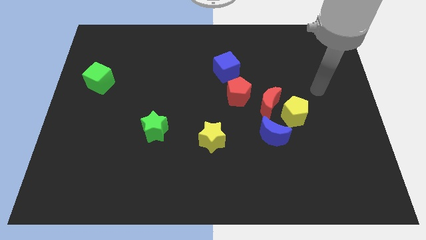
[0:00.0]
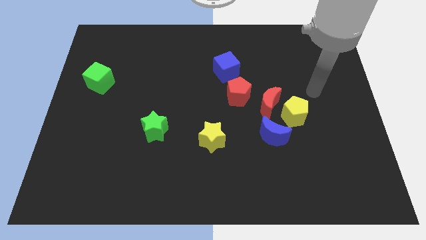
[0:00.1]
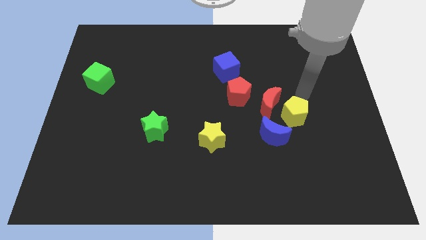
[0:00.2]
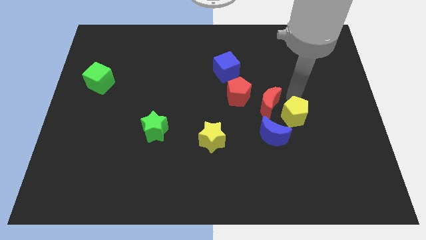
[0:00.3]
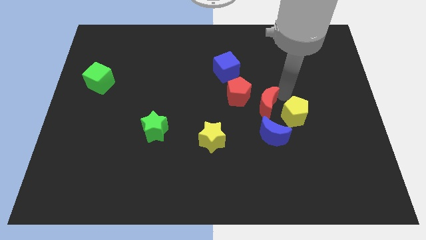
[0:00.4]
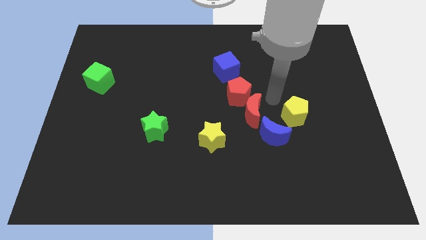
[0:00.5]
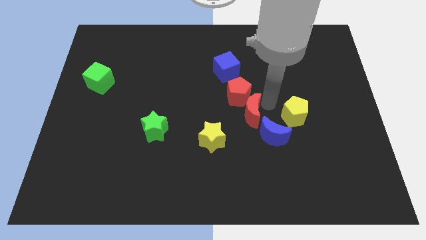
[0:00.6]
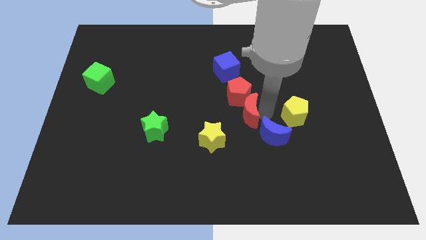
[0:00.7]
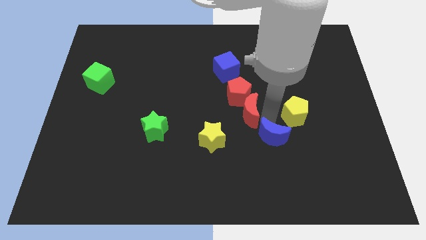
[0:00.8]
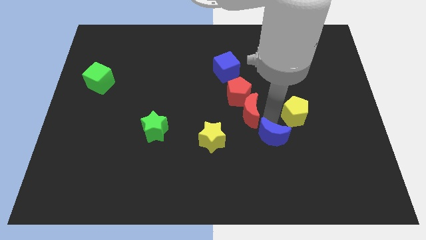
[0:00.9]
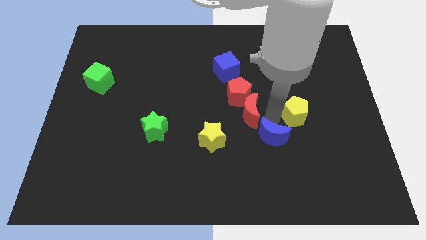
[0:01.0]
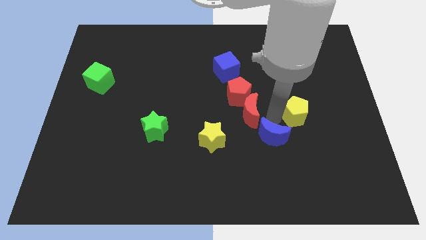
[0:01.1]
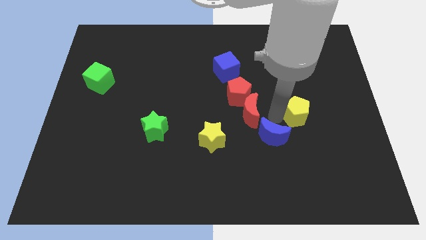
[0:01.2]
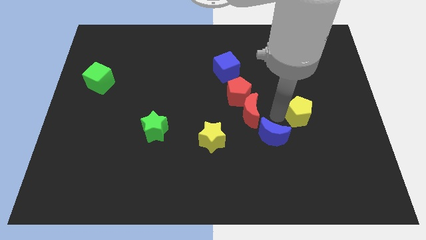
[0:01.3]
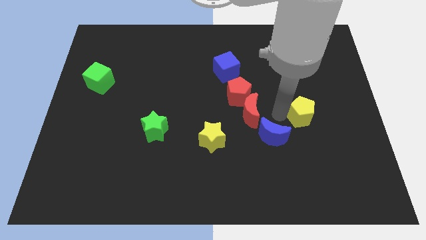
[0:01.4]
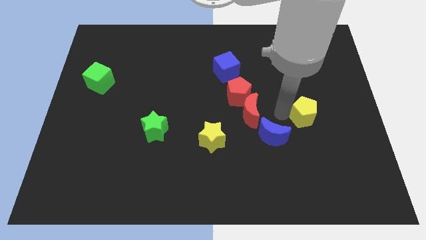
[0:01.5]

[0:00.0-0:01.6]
separate the yellow pentagon from the red moon and blue moon

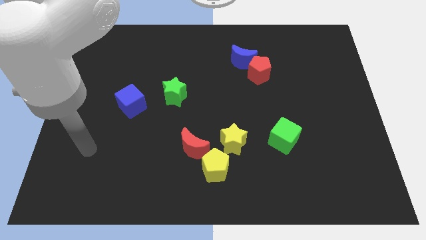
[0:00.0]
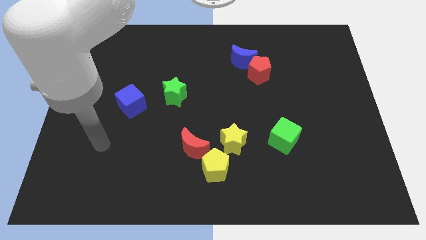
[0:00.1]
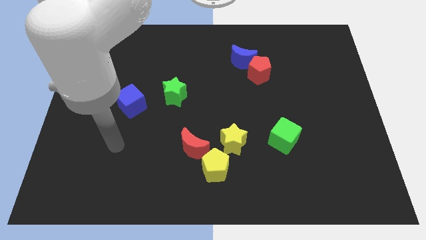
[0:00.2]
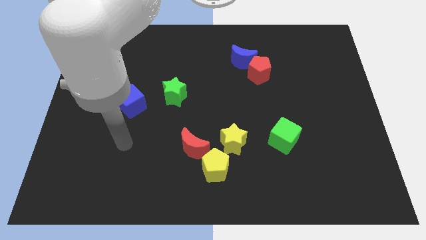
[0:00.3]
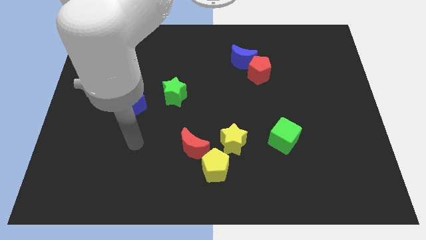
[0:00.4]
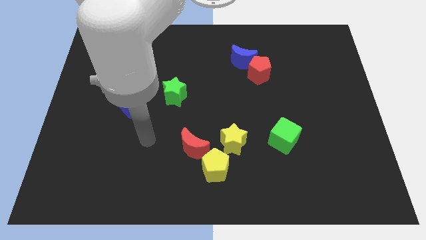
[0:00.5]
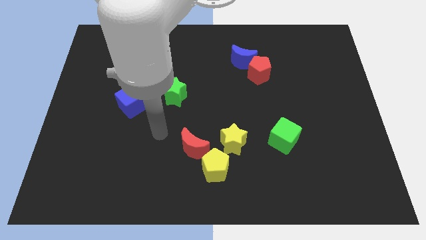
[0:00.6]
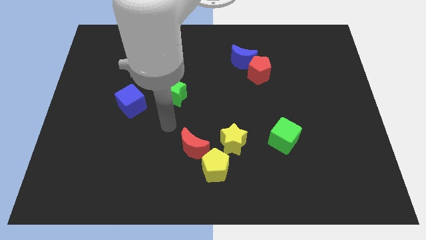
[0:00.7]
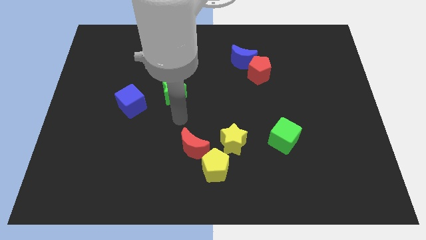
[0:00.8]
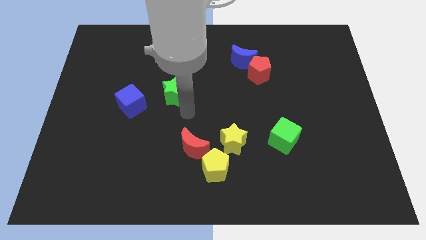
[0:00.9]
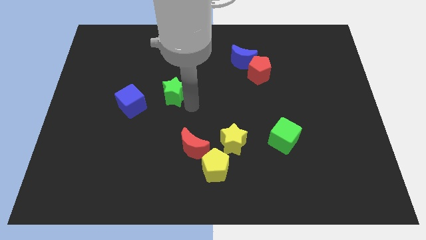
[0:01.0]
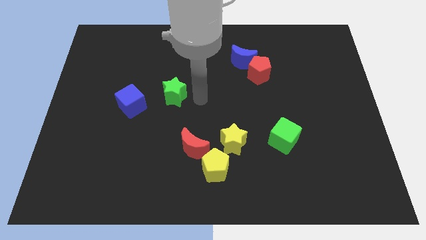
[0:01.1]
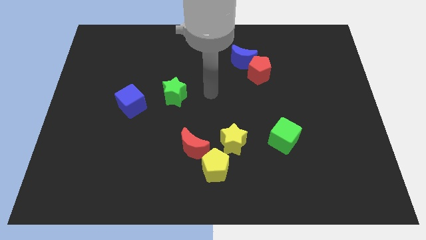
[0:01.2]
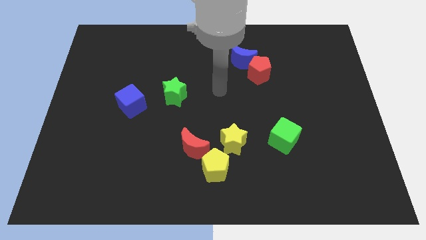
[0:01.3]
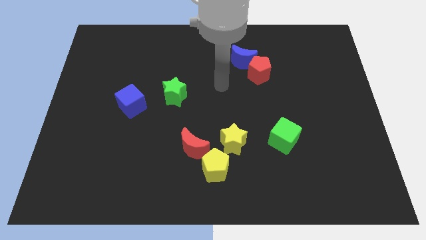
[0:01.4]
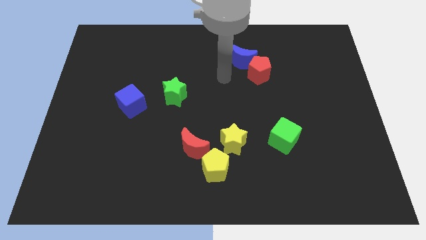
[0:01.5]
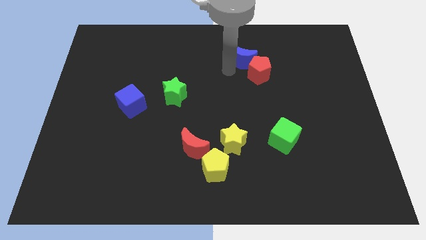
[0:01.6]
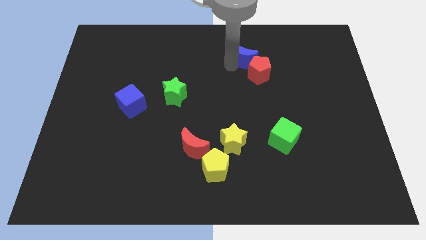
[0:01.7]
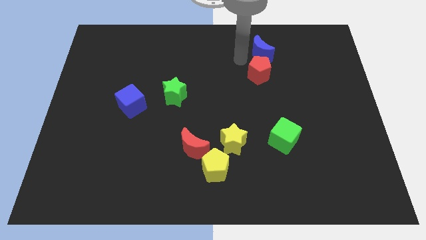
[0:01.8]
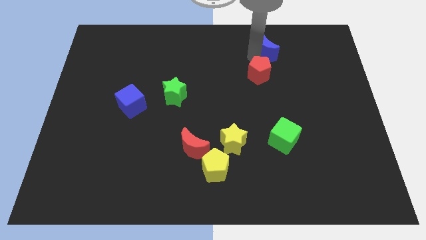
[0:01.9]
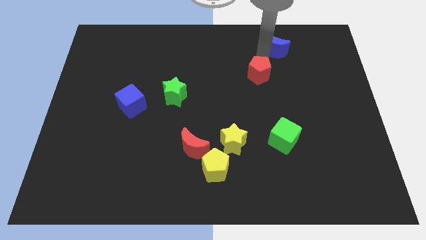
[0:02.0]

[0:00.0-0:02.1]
separate the red pentagon from the blue moon

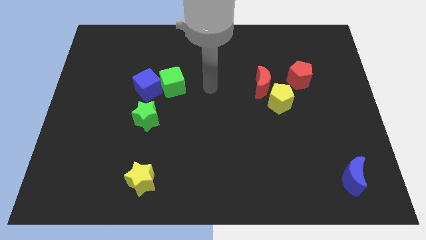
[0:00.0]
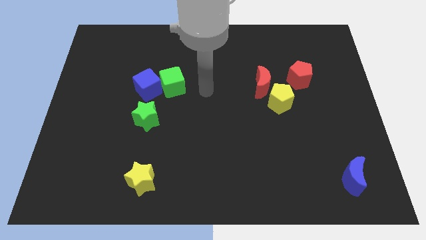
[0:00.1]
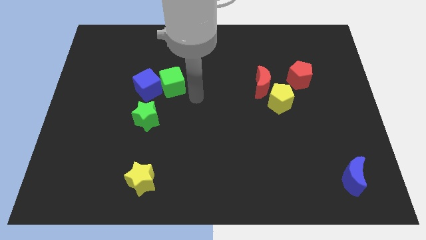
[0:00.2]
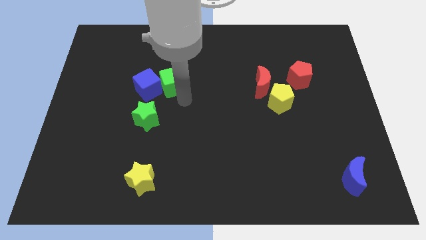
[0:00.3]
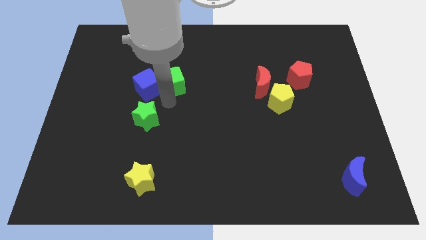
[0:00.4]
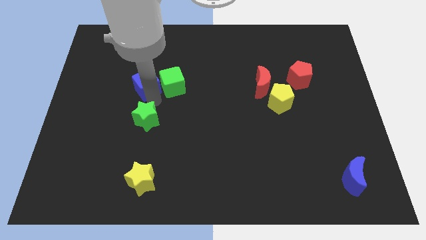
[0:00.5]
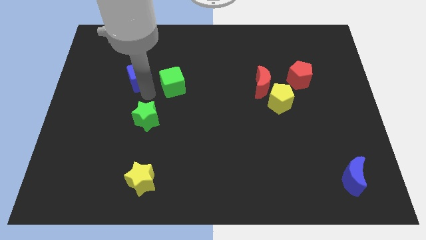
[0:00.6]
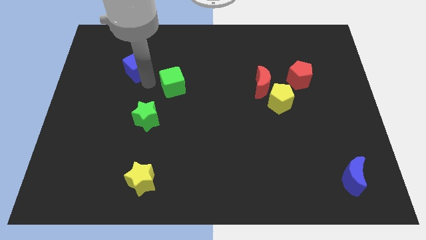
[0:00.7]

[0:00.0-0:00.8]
separate the green cube from the blue cube

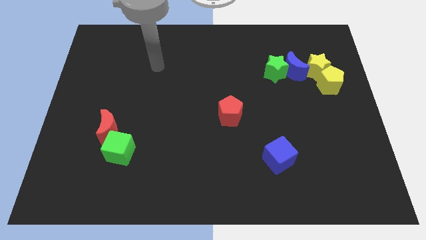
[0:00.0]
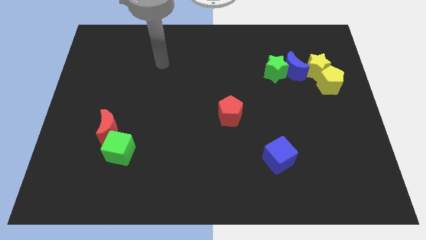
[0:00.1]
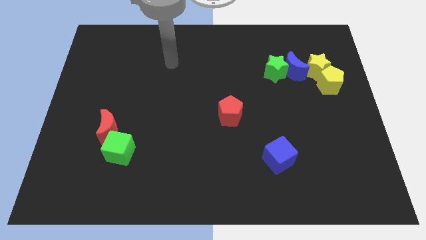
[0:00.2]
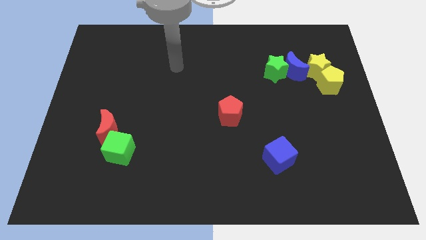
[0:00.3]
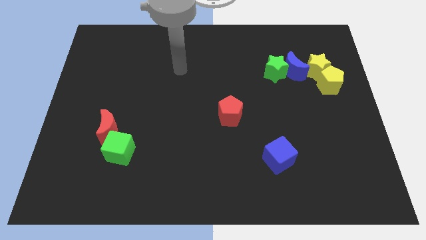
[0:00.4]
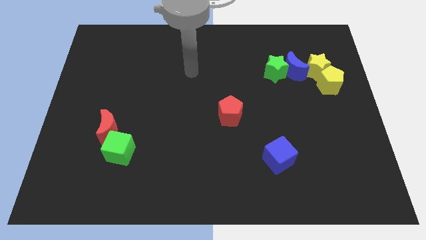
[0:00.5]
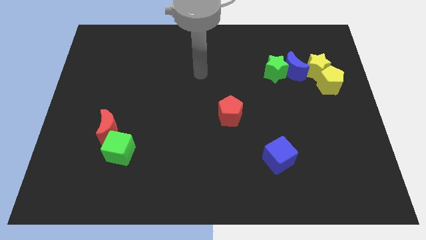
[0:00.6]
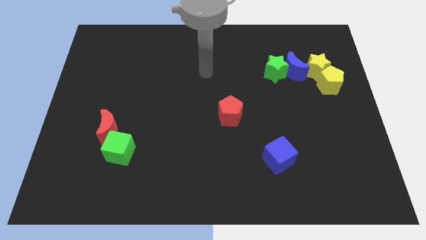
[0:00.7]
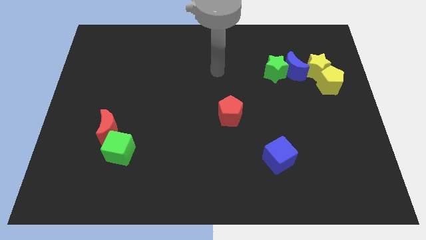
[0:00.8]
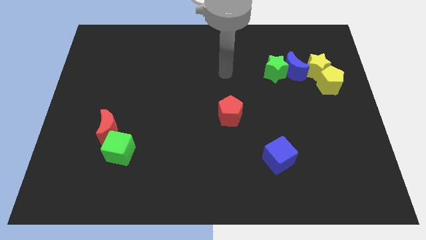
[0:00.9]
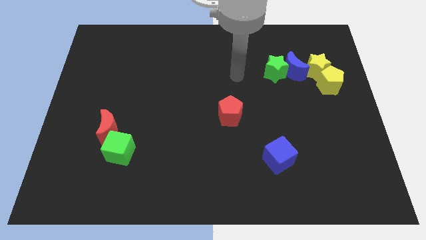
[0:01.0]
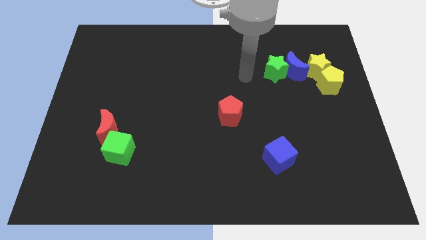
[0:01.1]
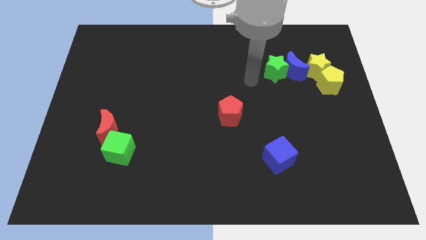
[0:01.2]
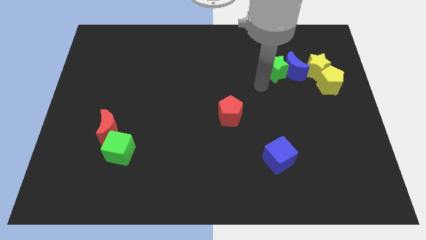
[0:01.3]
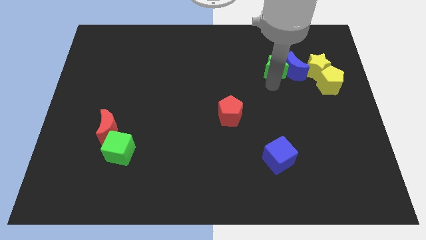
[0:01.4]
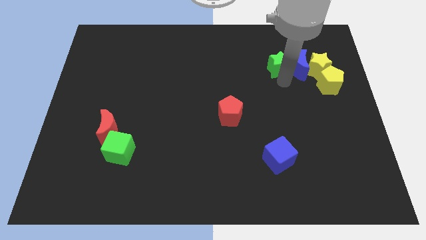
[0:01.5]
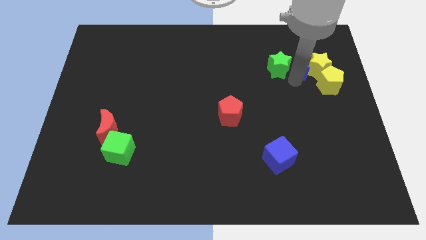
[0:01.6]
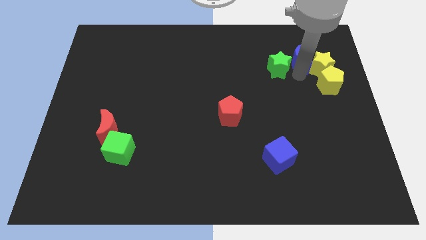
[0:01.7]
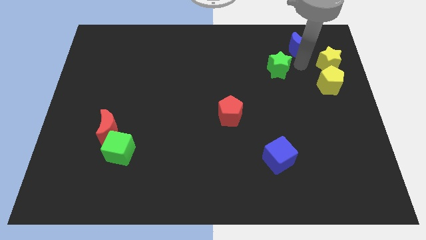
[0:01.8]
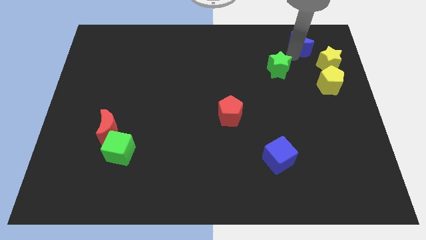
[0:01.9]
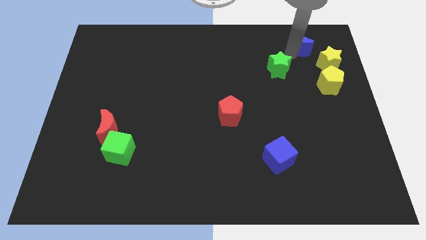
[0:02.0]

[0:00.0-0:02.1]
separate the green star from the blue moon

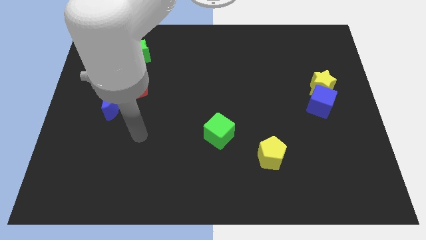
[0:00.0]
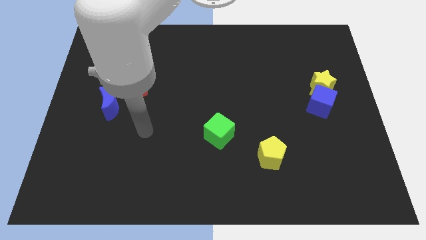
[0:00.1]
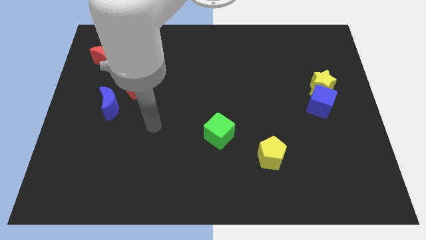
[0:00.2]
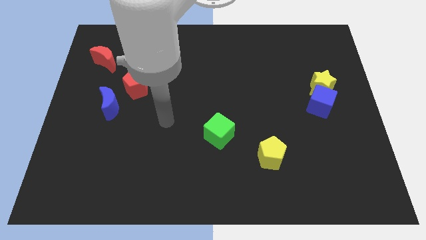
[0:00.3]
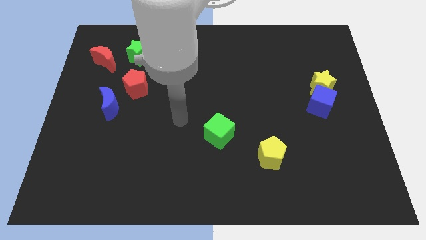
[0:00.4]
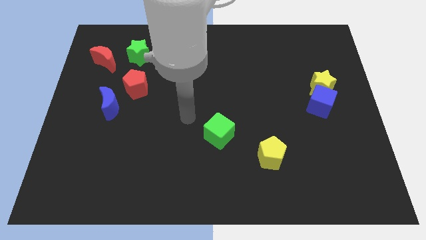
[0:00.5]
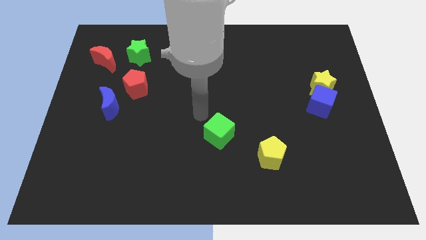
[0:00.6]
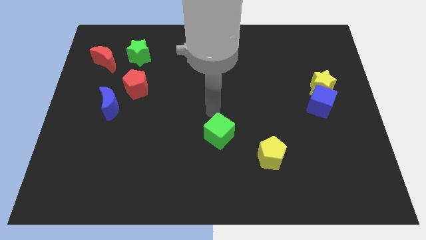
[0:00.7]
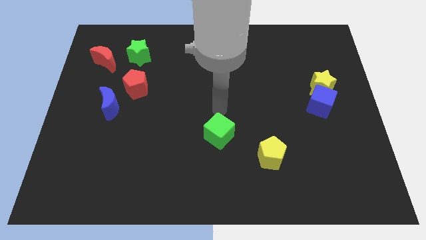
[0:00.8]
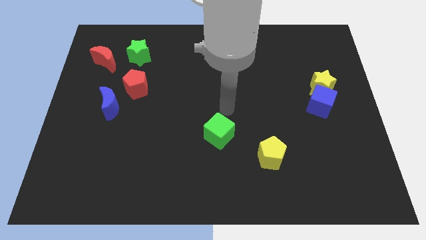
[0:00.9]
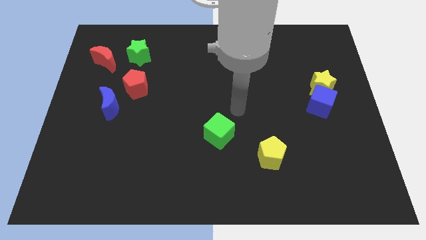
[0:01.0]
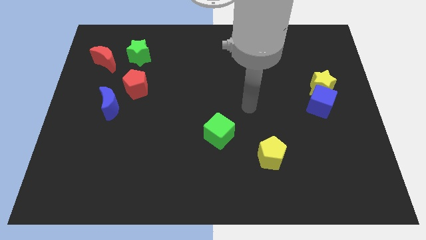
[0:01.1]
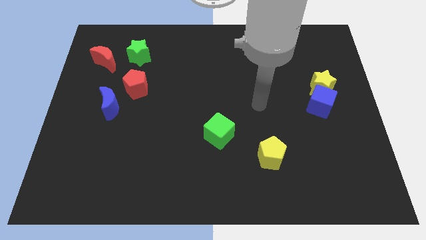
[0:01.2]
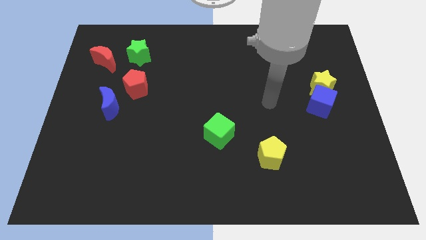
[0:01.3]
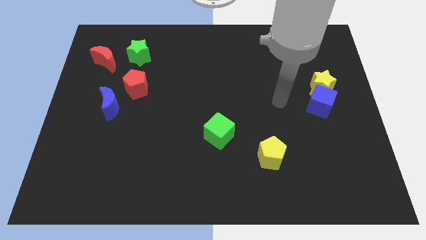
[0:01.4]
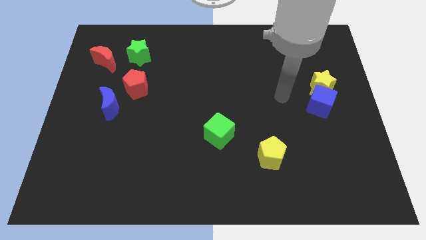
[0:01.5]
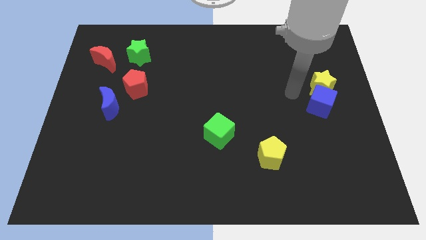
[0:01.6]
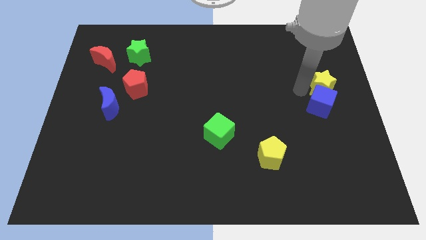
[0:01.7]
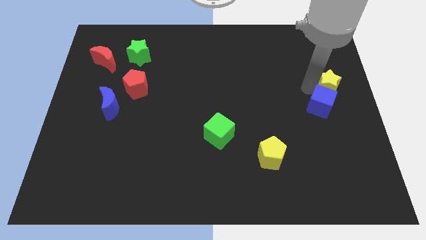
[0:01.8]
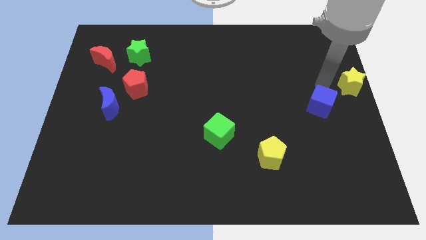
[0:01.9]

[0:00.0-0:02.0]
move the blue cube away from the yellow star

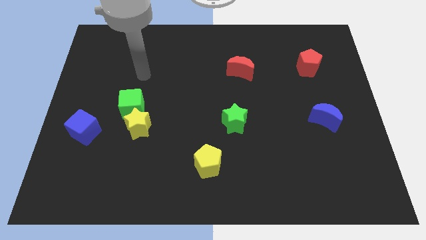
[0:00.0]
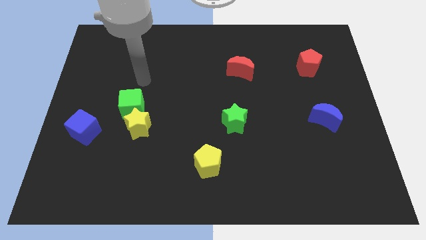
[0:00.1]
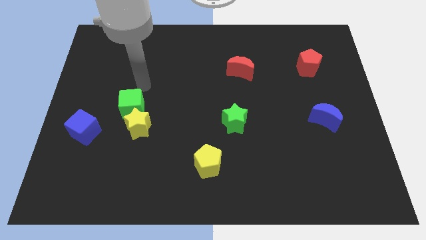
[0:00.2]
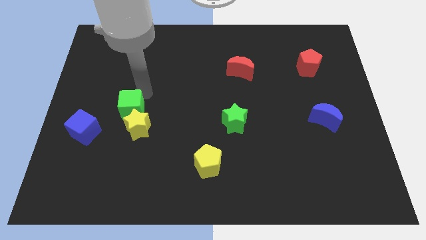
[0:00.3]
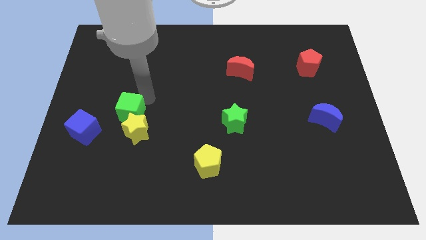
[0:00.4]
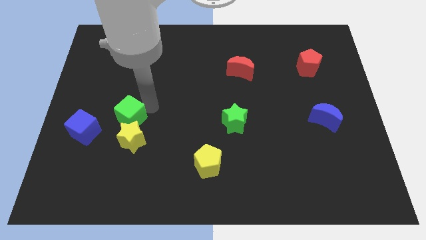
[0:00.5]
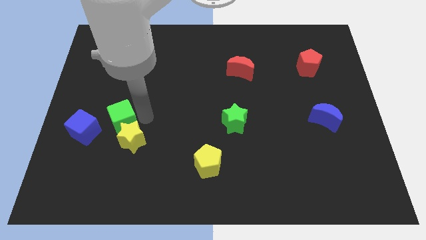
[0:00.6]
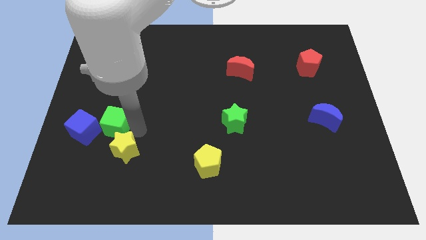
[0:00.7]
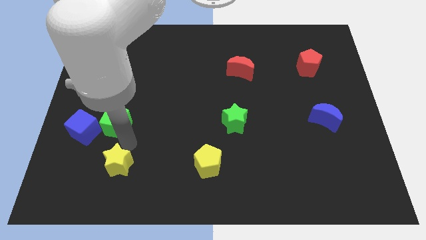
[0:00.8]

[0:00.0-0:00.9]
separate the green cube from the yellow star
